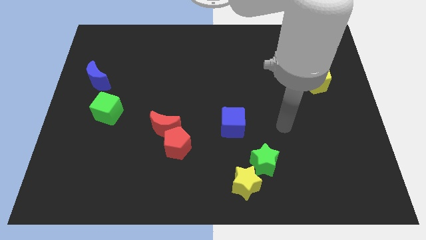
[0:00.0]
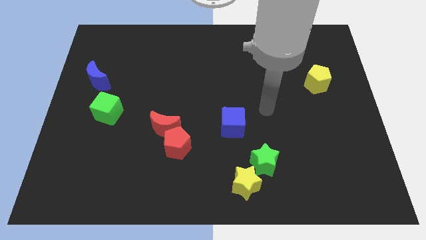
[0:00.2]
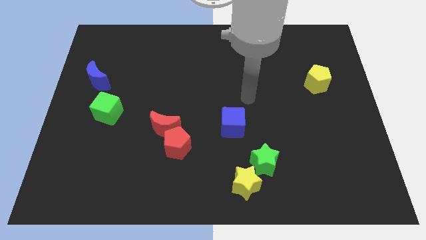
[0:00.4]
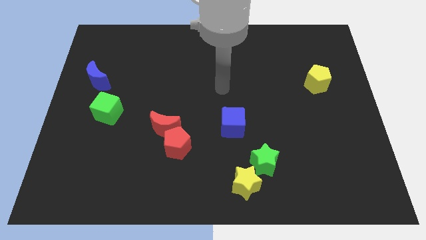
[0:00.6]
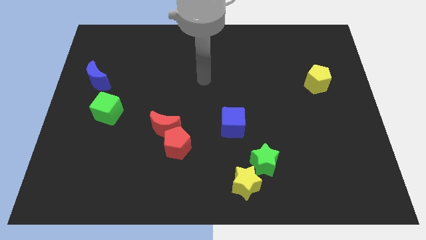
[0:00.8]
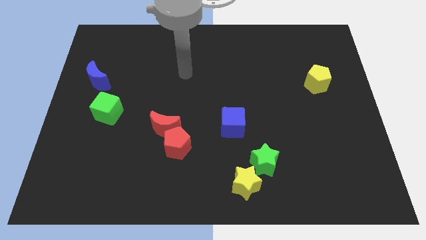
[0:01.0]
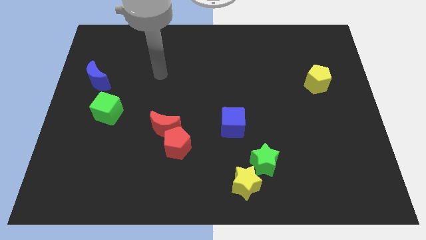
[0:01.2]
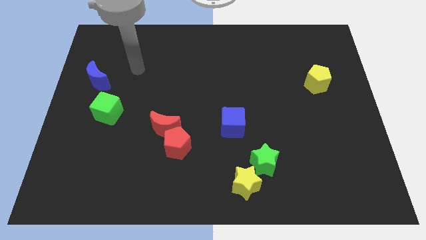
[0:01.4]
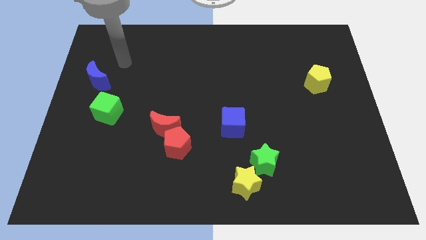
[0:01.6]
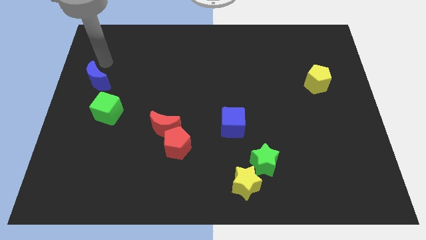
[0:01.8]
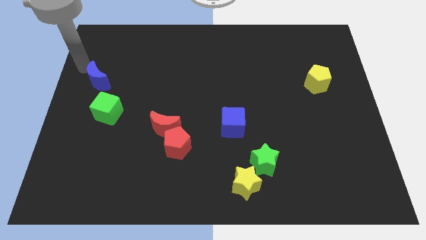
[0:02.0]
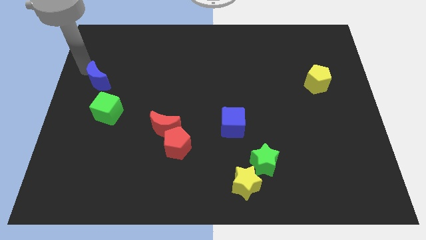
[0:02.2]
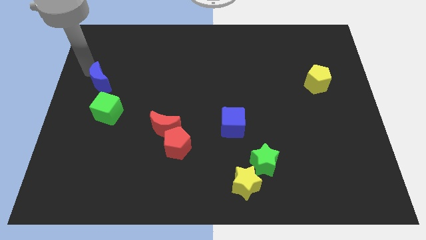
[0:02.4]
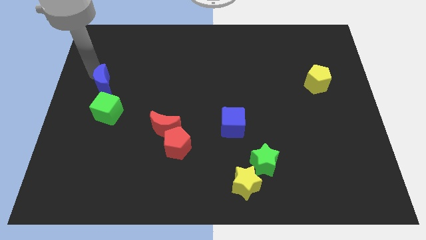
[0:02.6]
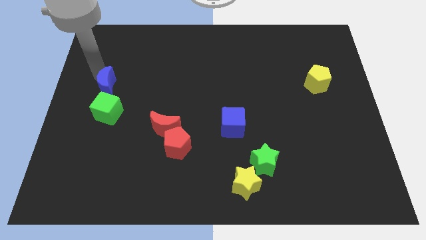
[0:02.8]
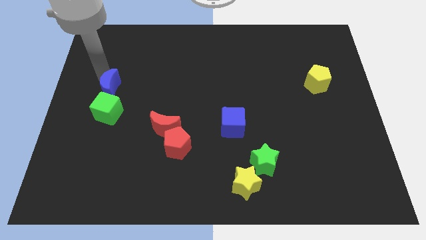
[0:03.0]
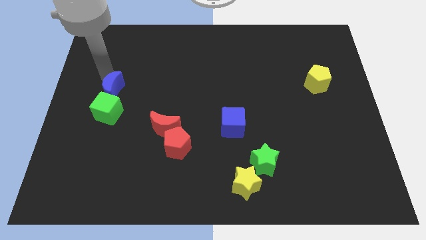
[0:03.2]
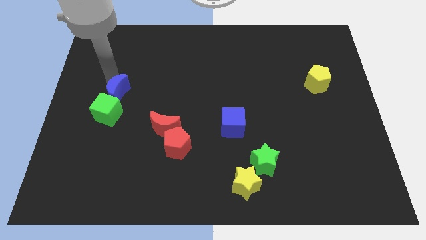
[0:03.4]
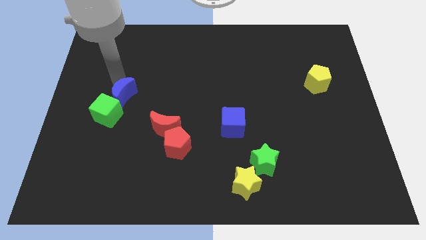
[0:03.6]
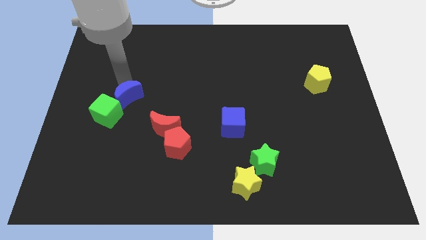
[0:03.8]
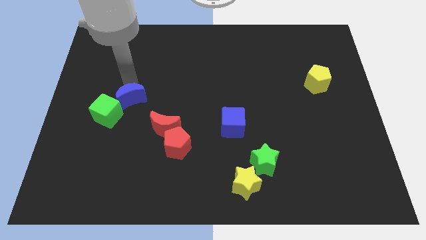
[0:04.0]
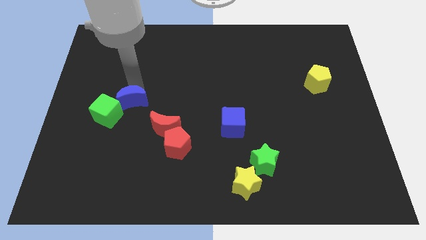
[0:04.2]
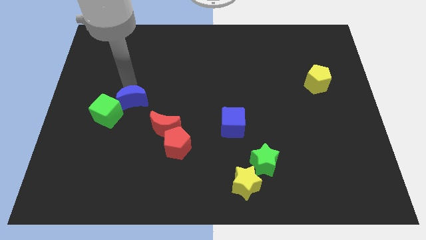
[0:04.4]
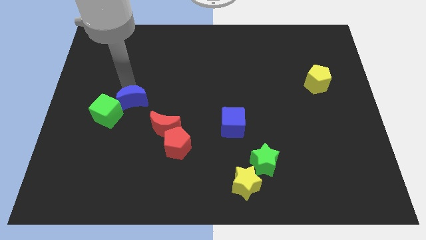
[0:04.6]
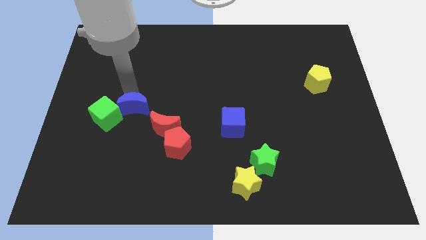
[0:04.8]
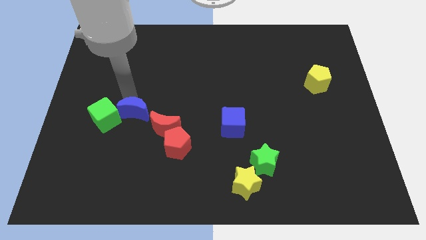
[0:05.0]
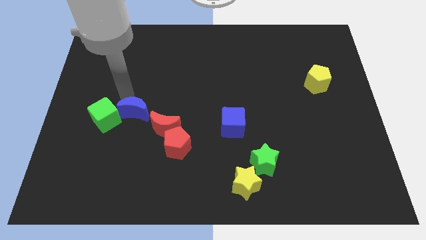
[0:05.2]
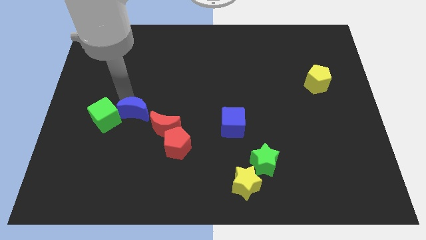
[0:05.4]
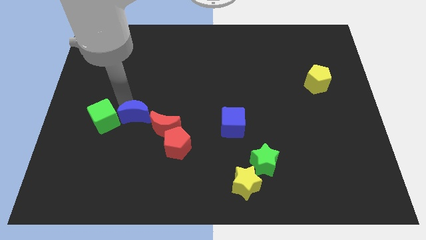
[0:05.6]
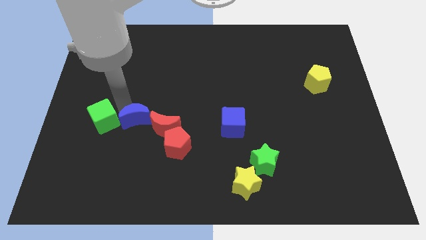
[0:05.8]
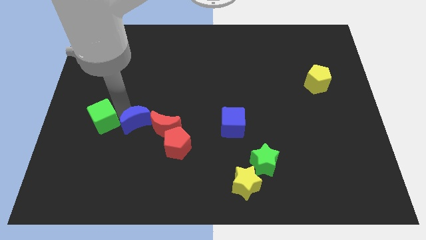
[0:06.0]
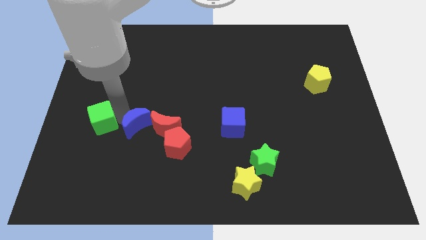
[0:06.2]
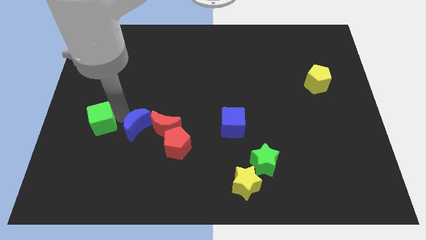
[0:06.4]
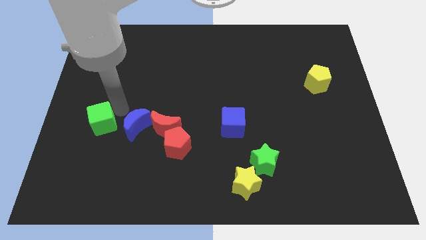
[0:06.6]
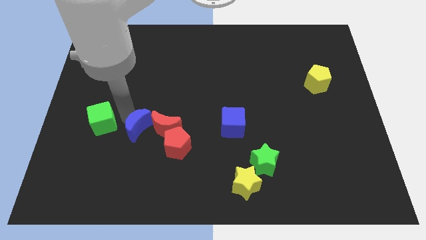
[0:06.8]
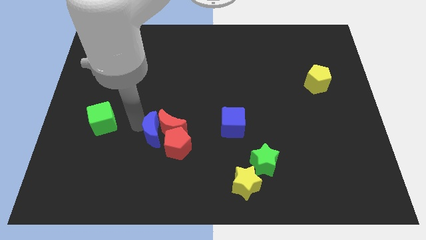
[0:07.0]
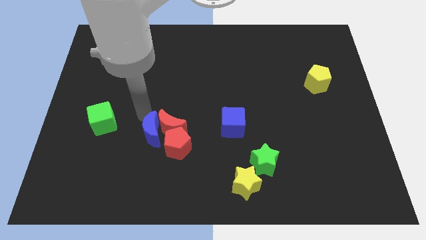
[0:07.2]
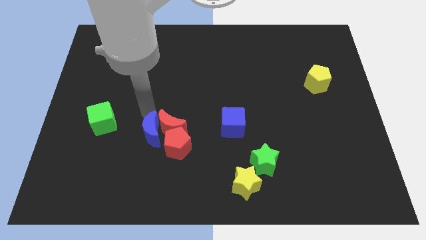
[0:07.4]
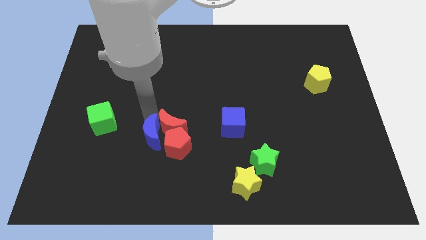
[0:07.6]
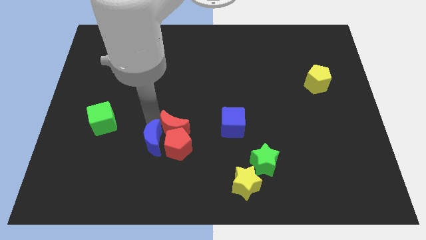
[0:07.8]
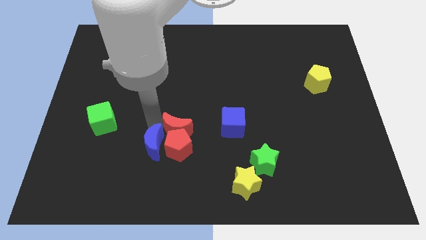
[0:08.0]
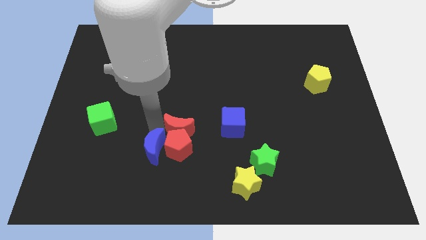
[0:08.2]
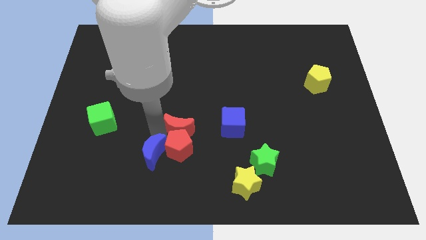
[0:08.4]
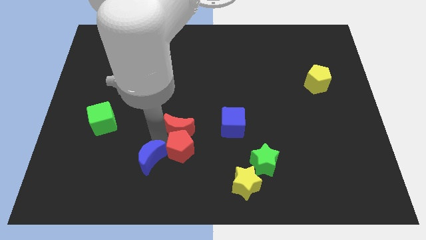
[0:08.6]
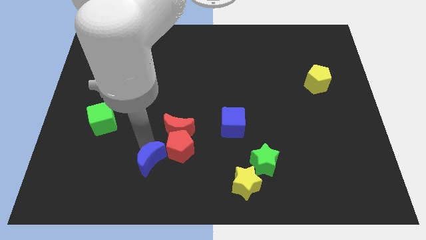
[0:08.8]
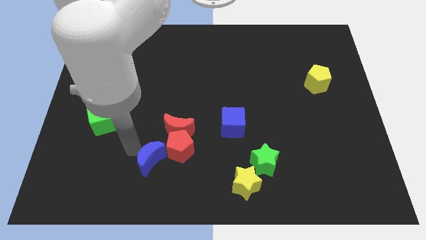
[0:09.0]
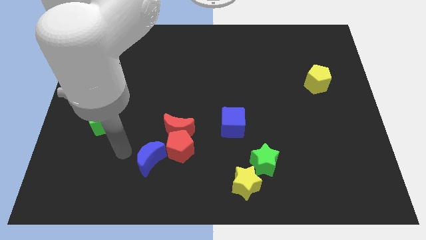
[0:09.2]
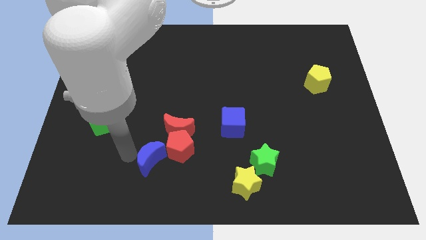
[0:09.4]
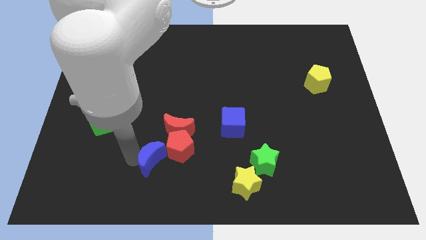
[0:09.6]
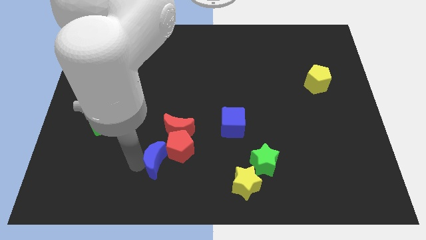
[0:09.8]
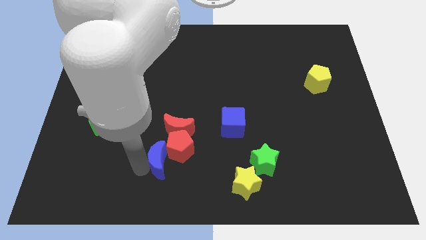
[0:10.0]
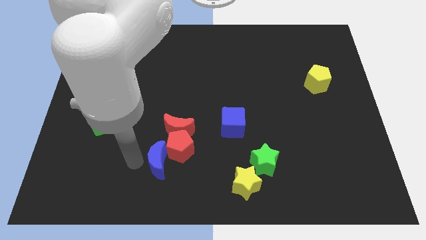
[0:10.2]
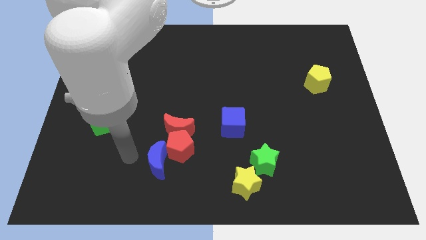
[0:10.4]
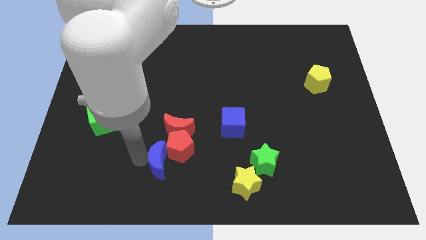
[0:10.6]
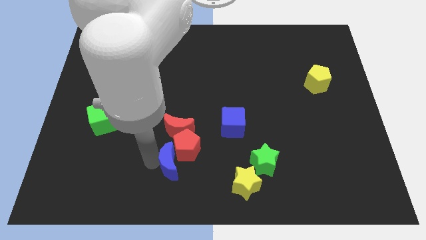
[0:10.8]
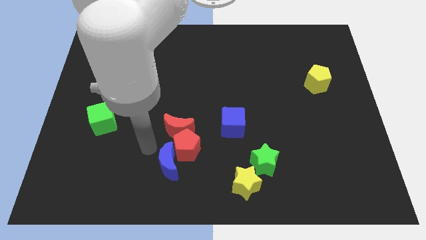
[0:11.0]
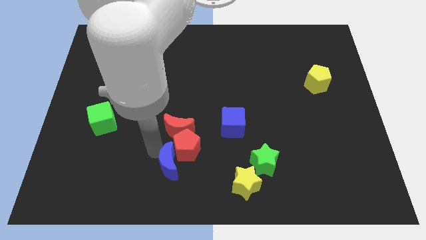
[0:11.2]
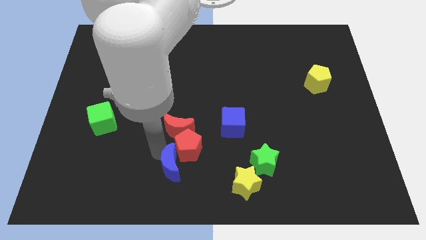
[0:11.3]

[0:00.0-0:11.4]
push the blue moon to the bottom side

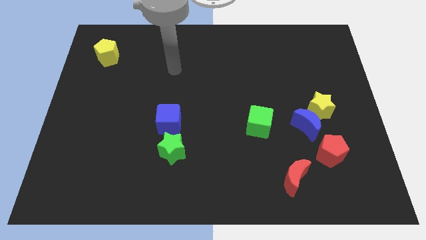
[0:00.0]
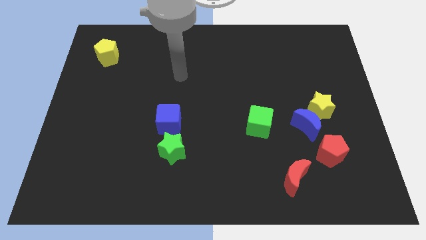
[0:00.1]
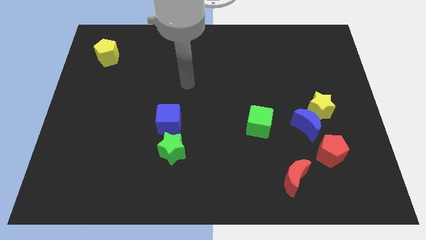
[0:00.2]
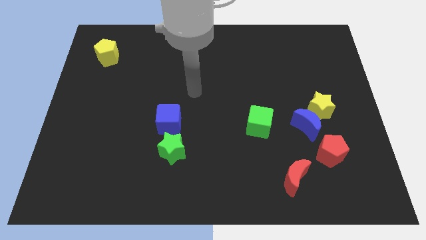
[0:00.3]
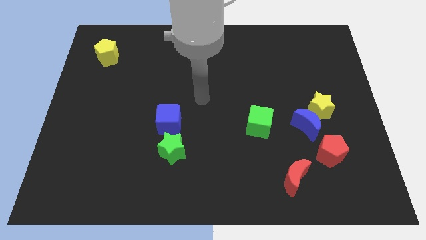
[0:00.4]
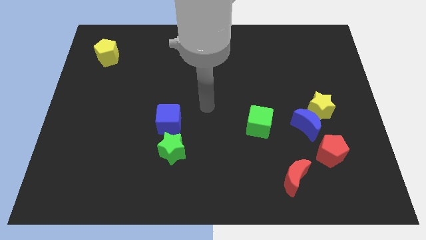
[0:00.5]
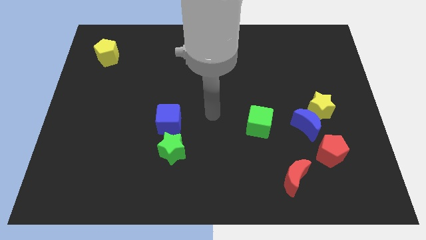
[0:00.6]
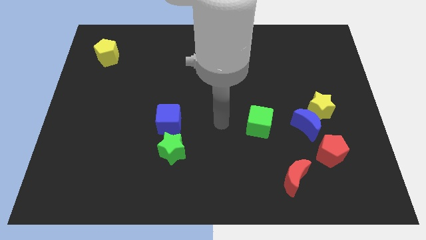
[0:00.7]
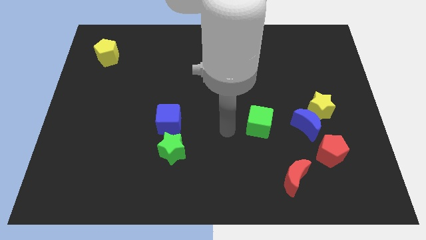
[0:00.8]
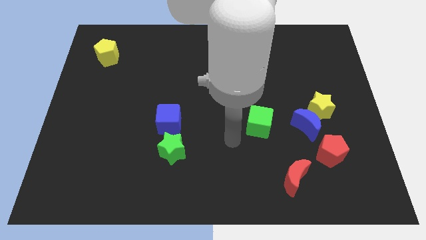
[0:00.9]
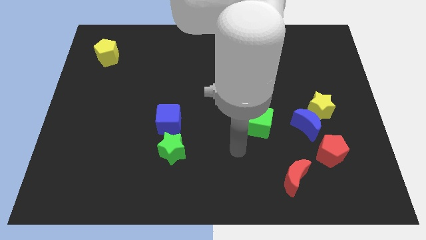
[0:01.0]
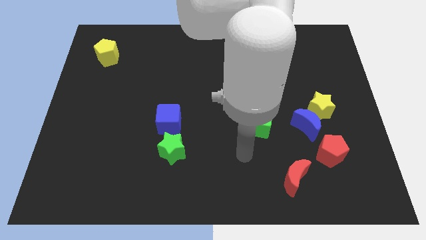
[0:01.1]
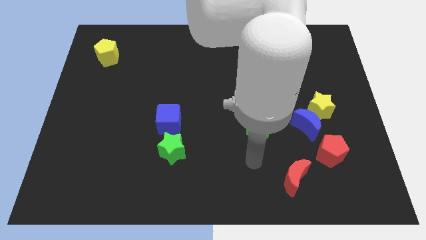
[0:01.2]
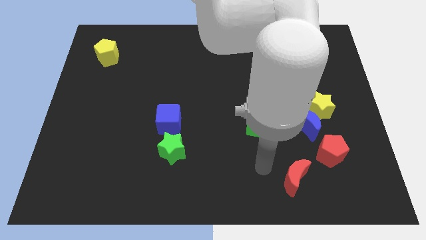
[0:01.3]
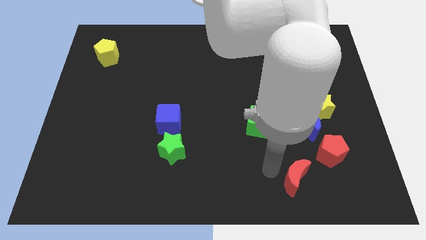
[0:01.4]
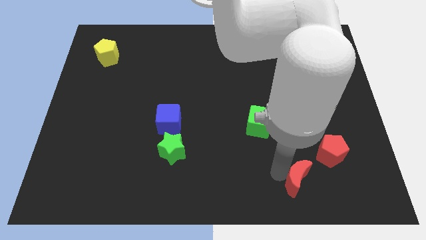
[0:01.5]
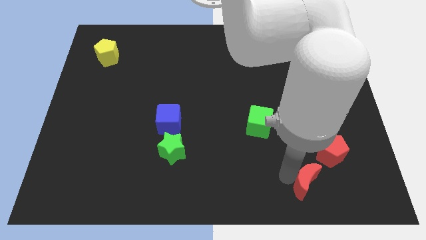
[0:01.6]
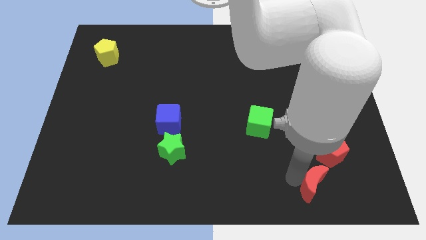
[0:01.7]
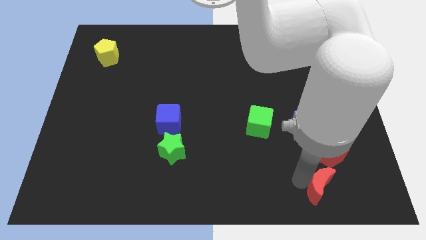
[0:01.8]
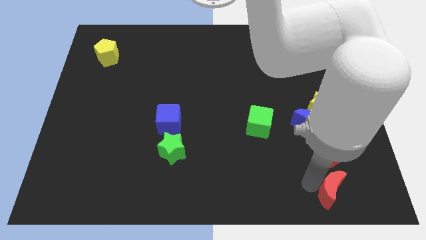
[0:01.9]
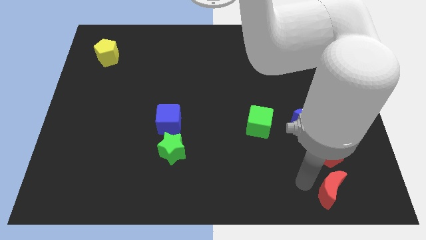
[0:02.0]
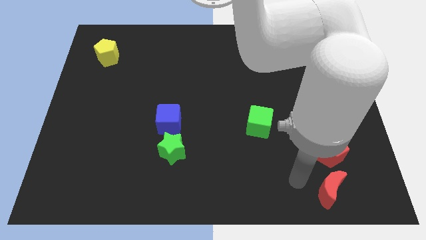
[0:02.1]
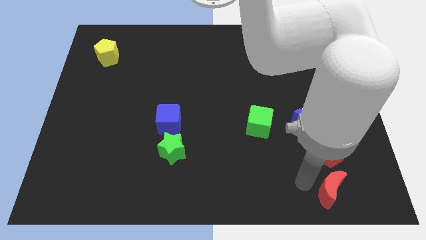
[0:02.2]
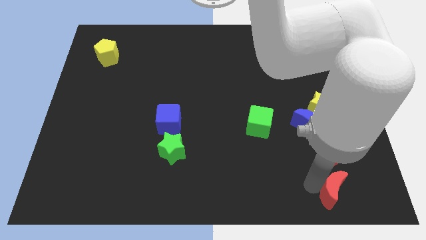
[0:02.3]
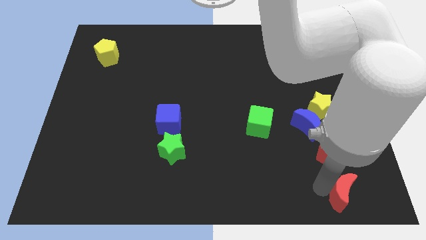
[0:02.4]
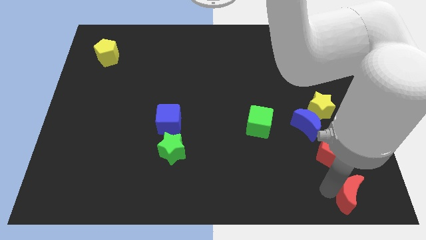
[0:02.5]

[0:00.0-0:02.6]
slide the red moon to the bottom right corner
